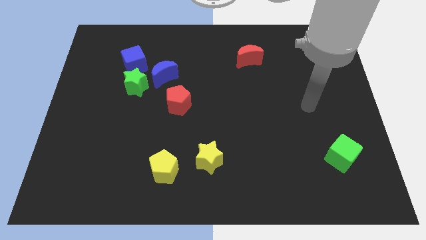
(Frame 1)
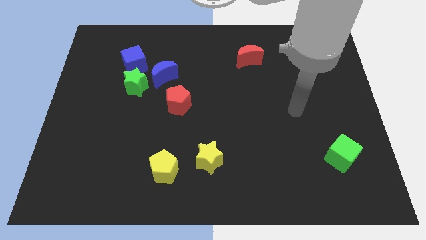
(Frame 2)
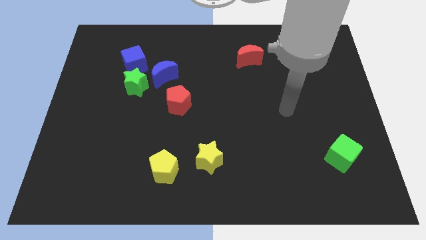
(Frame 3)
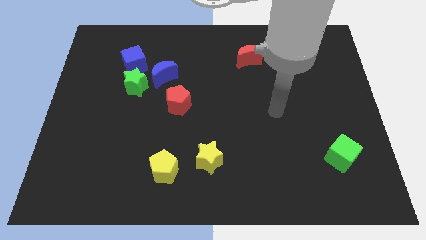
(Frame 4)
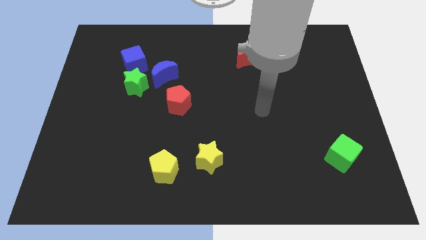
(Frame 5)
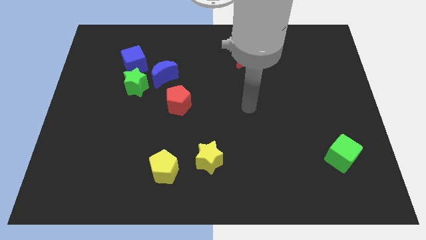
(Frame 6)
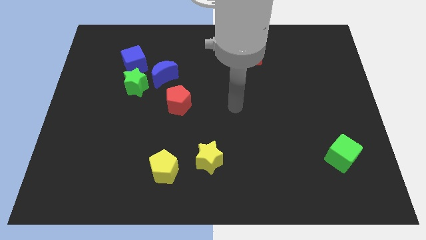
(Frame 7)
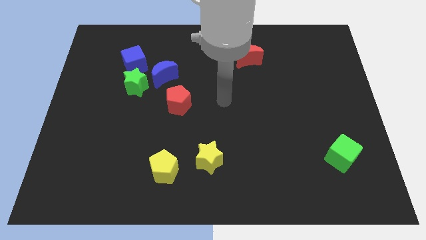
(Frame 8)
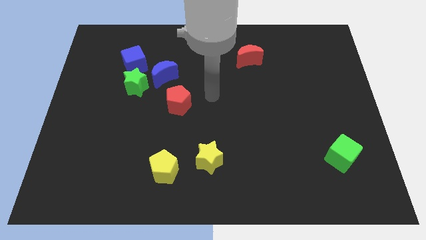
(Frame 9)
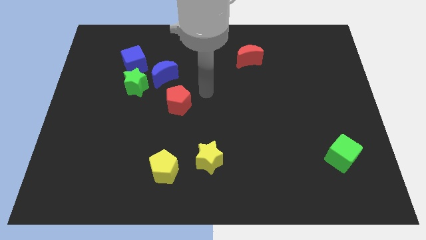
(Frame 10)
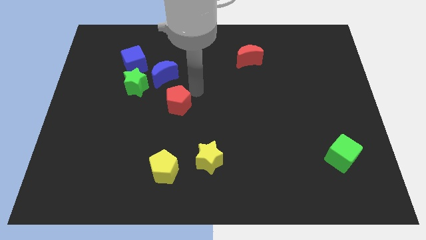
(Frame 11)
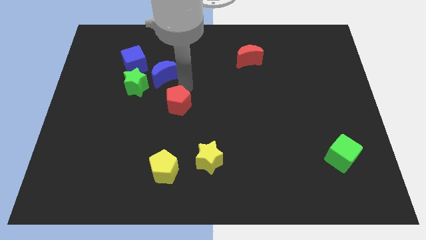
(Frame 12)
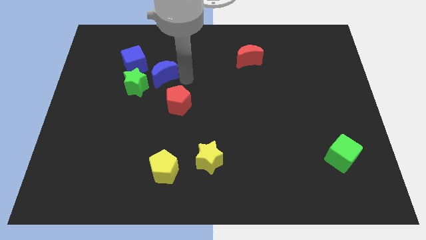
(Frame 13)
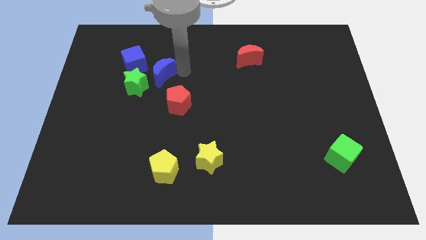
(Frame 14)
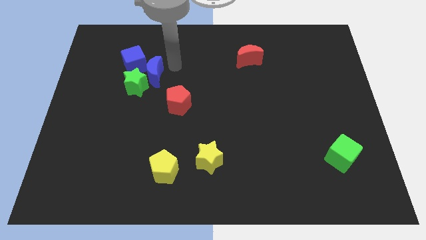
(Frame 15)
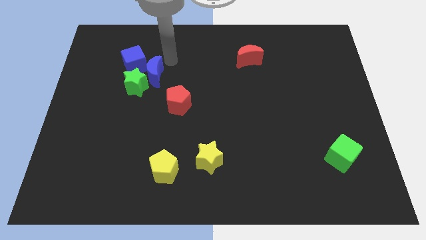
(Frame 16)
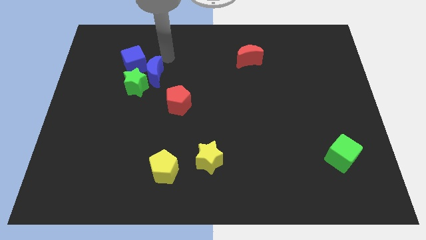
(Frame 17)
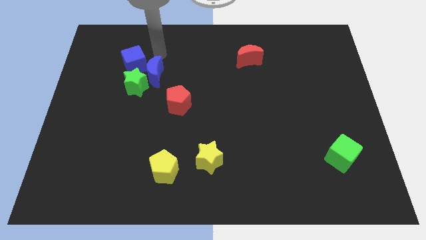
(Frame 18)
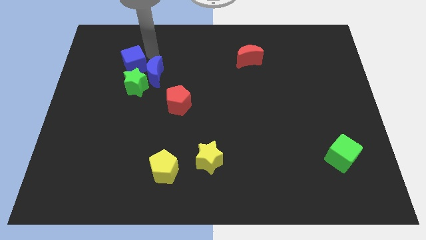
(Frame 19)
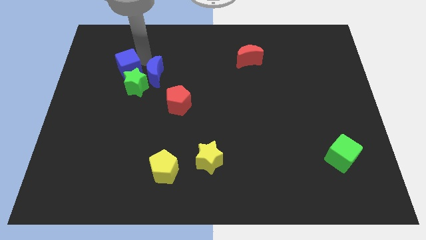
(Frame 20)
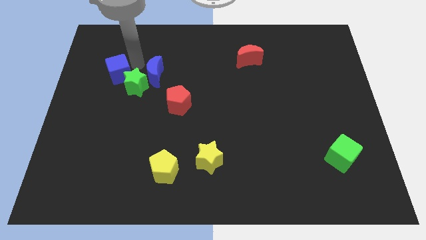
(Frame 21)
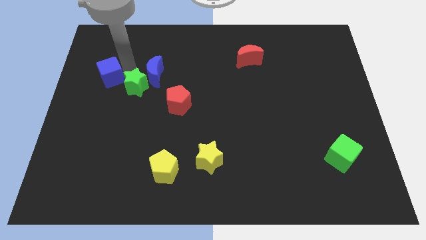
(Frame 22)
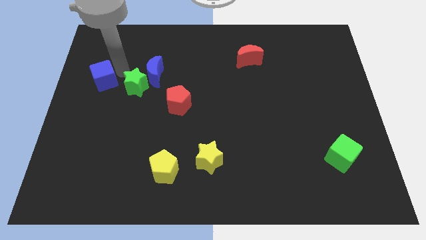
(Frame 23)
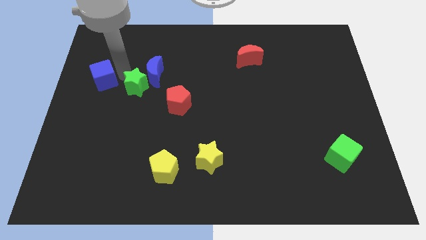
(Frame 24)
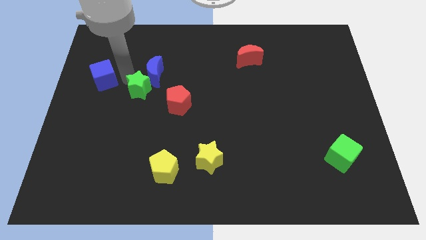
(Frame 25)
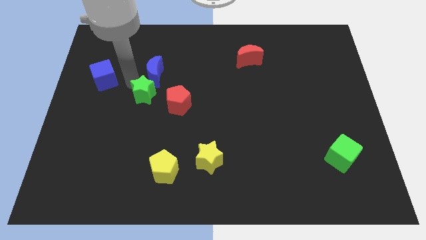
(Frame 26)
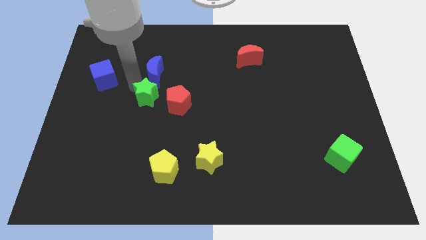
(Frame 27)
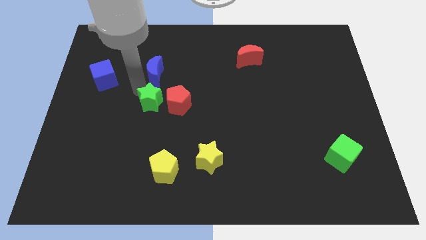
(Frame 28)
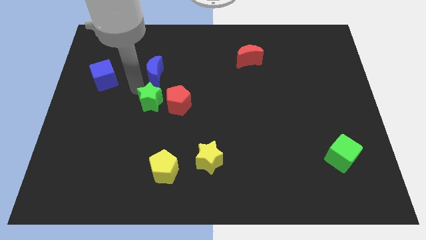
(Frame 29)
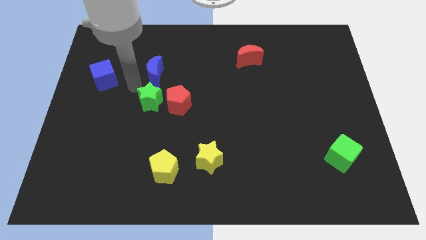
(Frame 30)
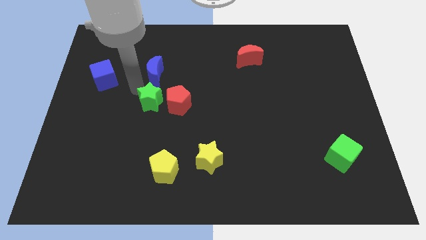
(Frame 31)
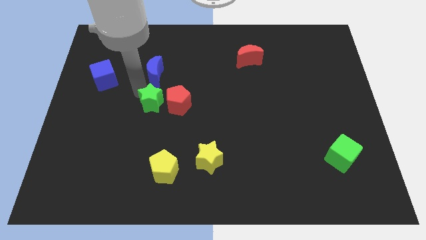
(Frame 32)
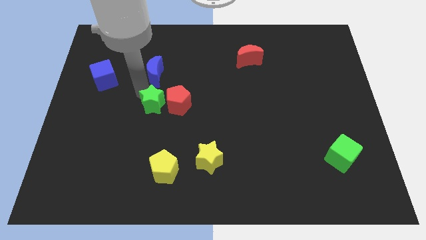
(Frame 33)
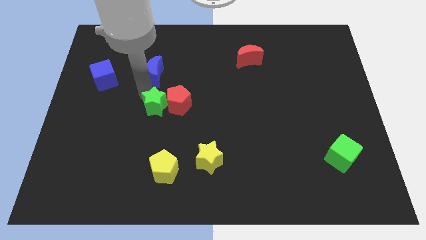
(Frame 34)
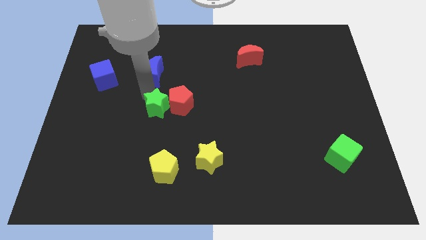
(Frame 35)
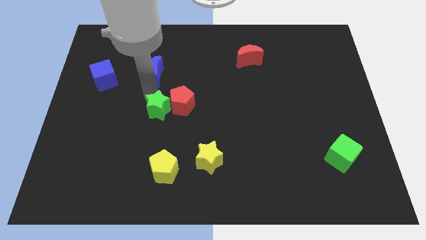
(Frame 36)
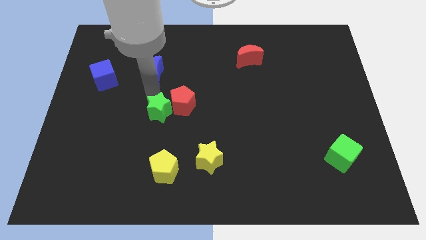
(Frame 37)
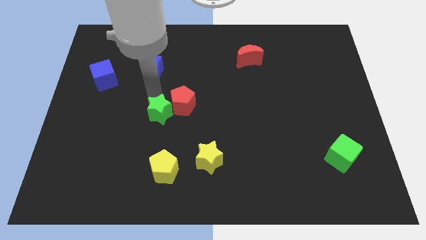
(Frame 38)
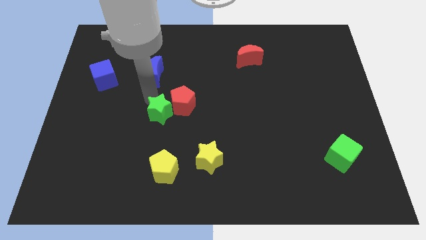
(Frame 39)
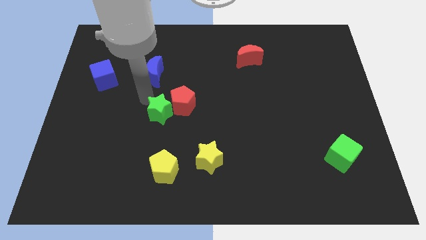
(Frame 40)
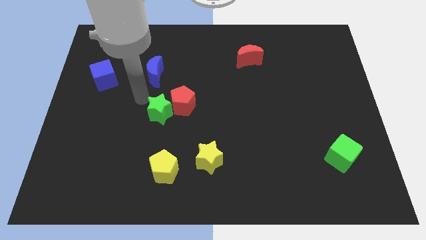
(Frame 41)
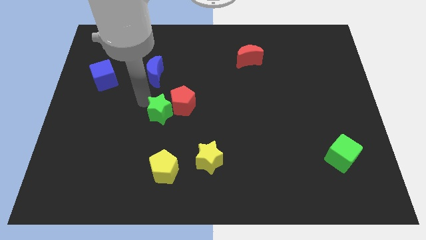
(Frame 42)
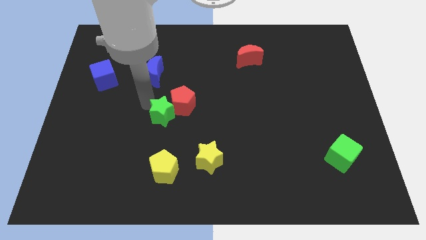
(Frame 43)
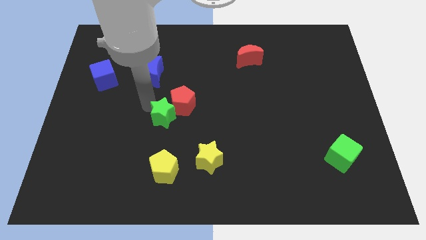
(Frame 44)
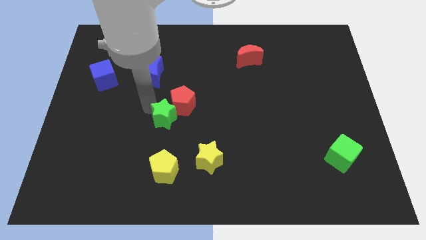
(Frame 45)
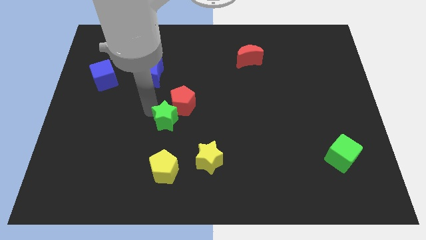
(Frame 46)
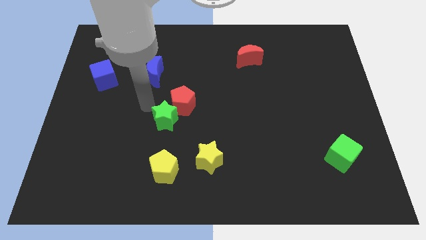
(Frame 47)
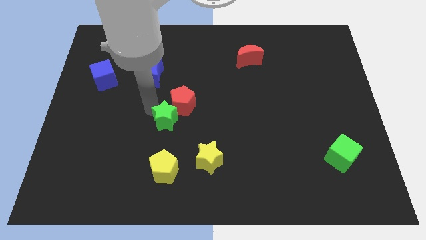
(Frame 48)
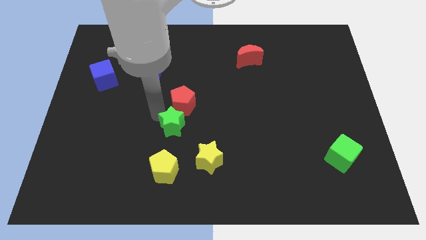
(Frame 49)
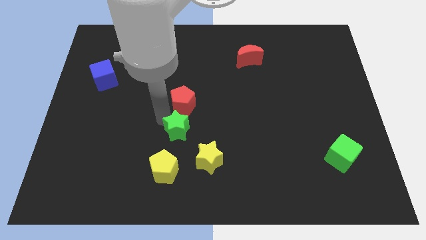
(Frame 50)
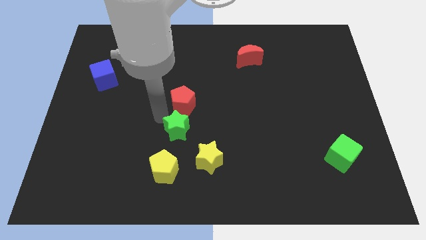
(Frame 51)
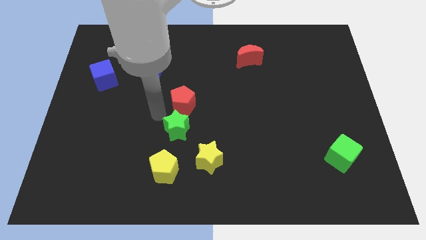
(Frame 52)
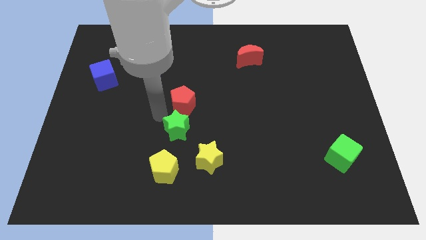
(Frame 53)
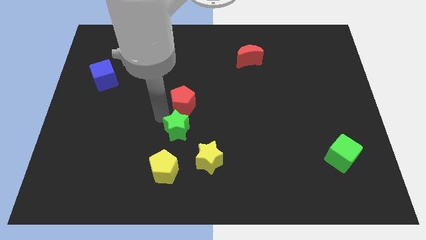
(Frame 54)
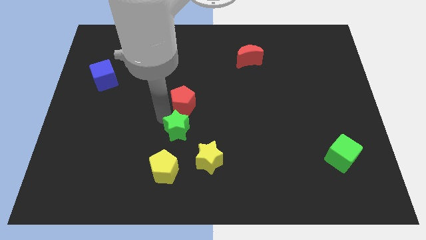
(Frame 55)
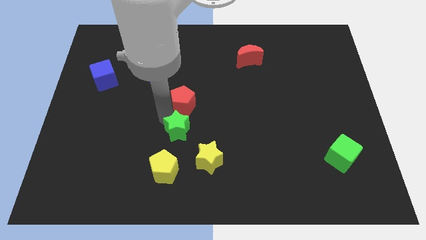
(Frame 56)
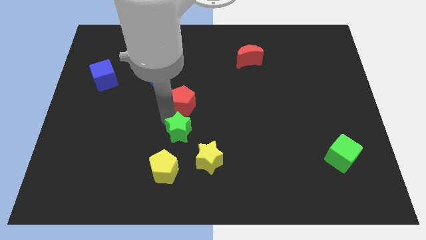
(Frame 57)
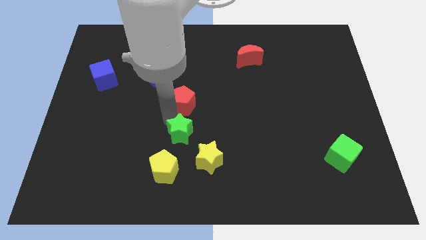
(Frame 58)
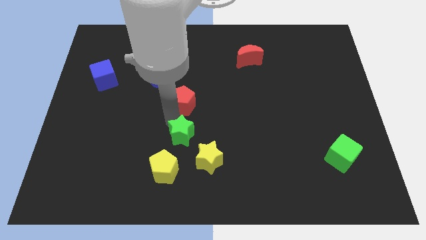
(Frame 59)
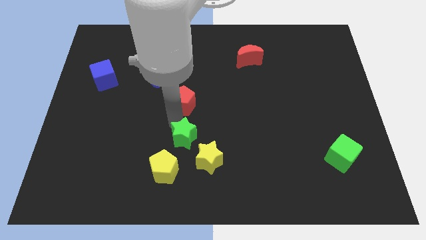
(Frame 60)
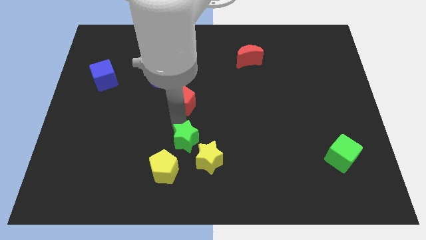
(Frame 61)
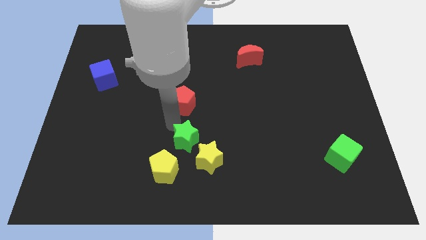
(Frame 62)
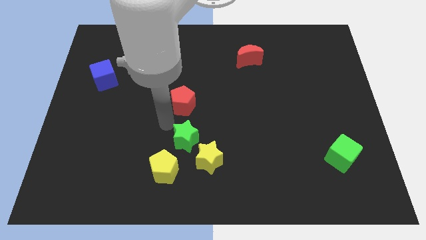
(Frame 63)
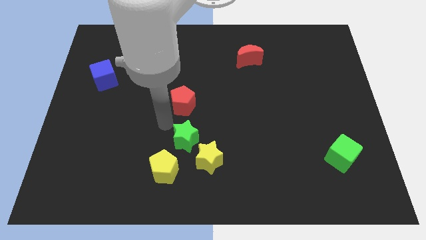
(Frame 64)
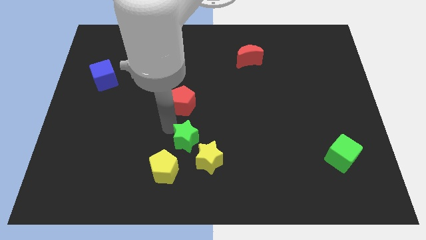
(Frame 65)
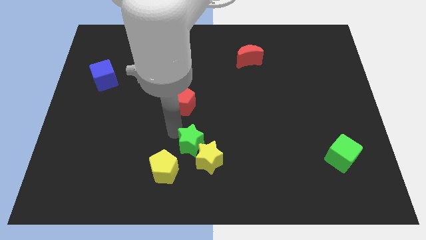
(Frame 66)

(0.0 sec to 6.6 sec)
push the green star close to the yellow star

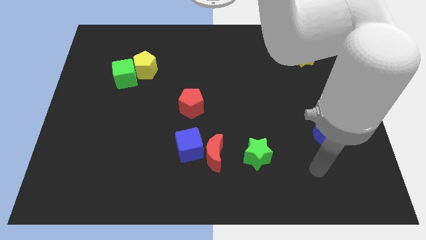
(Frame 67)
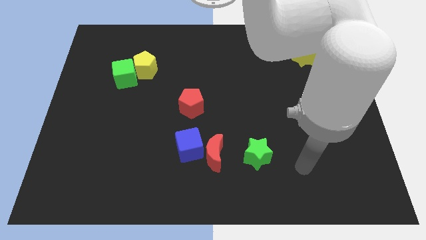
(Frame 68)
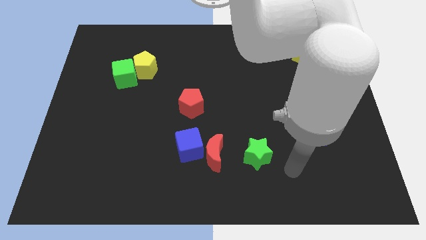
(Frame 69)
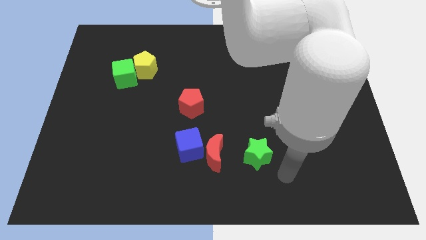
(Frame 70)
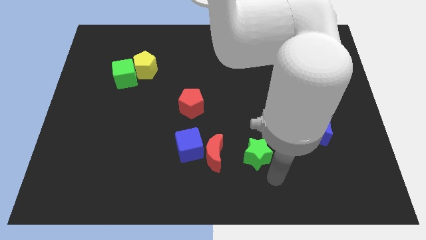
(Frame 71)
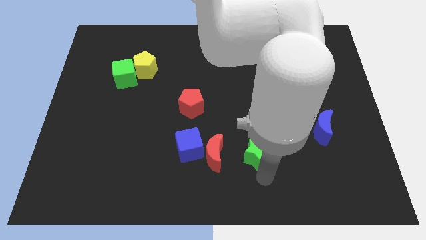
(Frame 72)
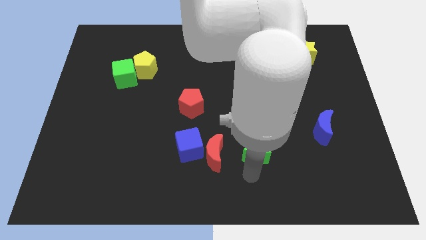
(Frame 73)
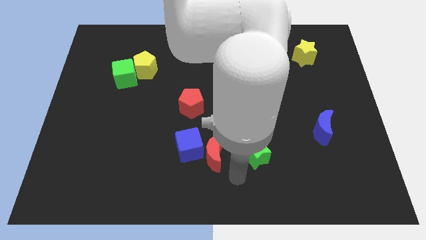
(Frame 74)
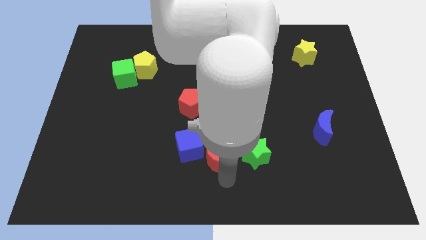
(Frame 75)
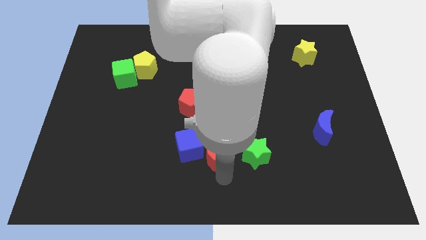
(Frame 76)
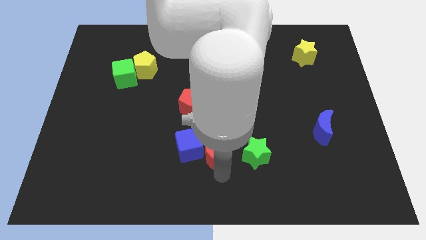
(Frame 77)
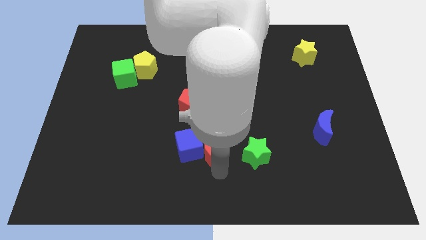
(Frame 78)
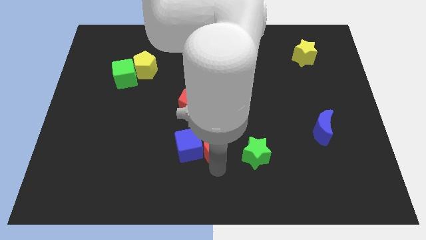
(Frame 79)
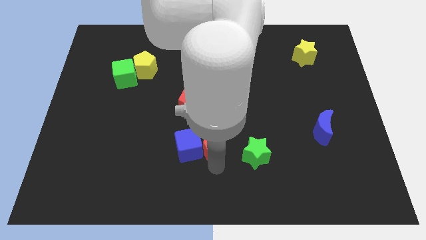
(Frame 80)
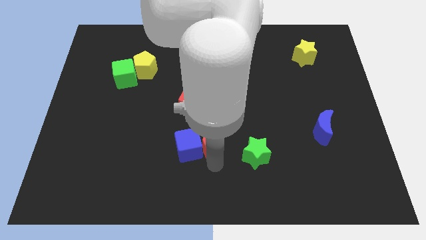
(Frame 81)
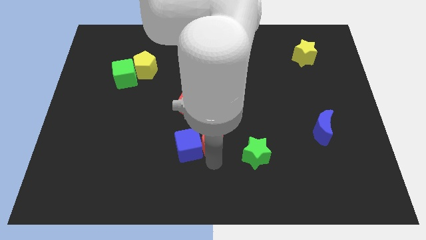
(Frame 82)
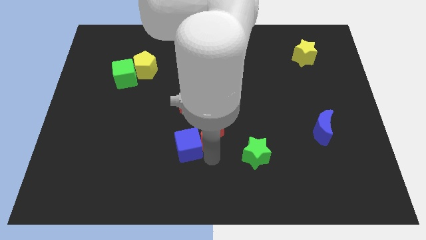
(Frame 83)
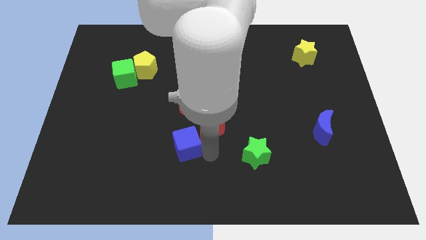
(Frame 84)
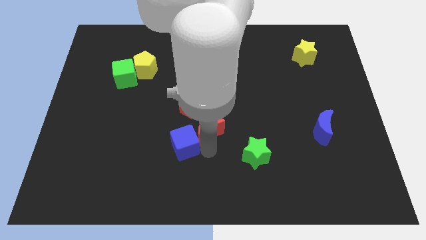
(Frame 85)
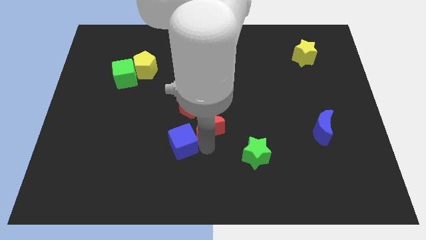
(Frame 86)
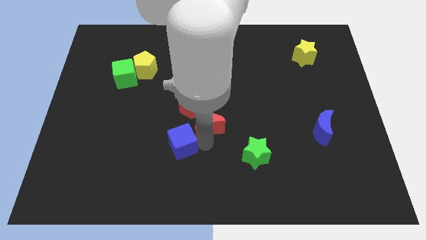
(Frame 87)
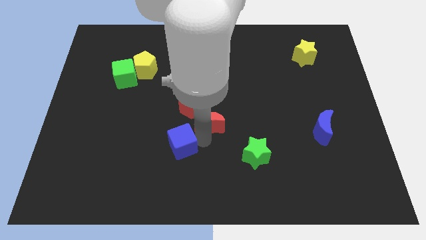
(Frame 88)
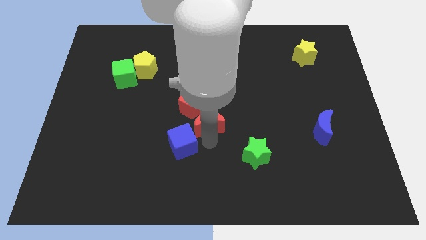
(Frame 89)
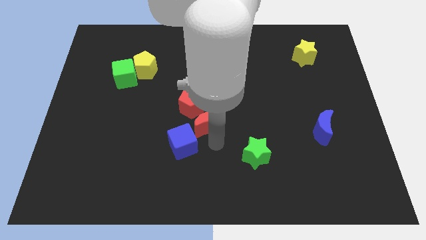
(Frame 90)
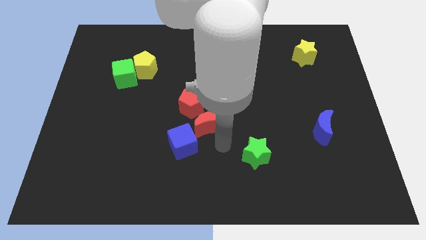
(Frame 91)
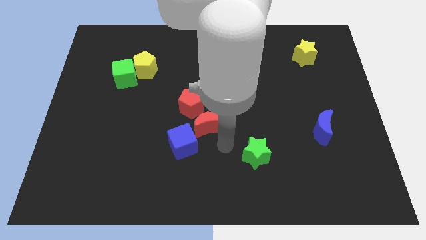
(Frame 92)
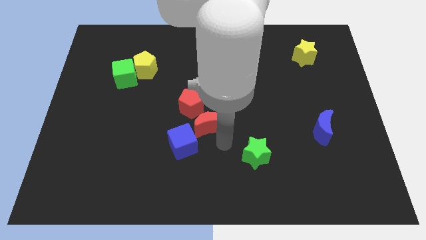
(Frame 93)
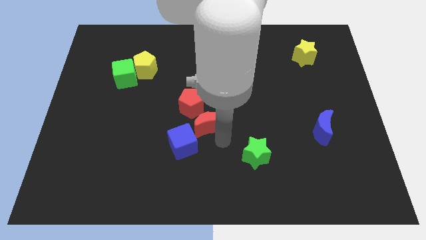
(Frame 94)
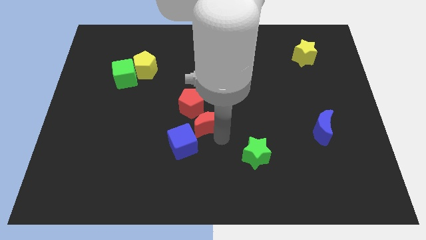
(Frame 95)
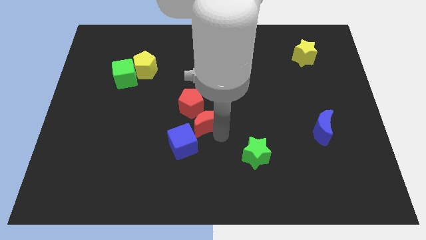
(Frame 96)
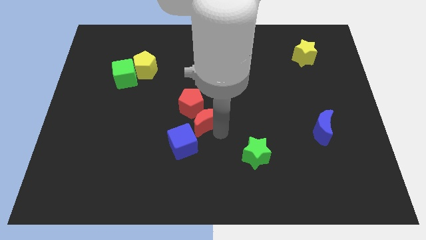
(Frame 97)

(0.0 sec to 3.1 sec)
put the red moon to the red pentagon
